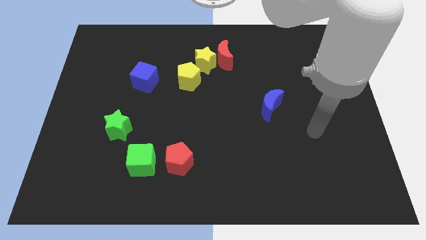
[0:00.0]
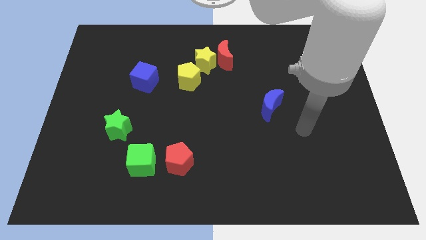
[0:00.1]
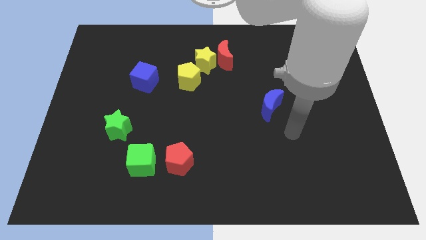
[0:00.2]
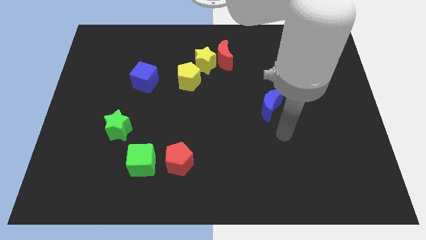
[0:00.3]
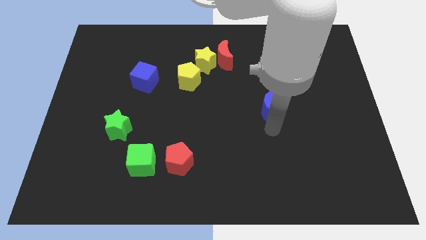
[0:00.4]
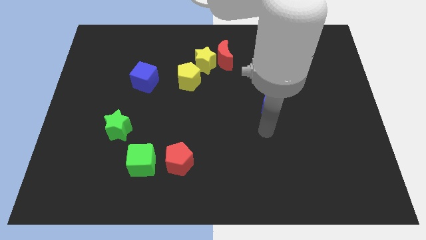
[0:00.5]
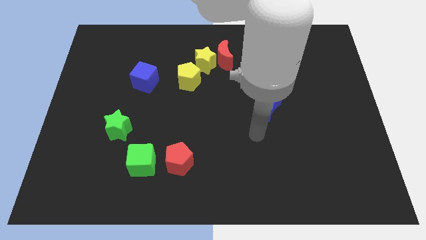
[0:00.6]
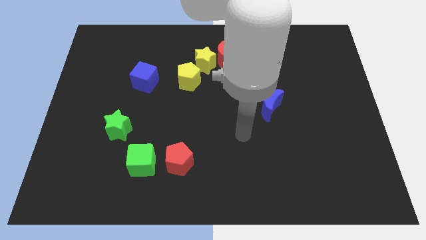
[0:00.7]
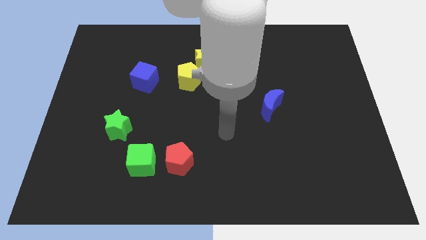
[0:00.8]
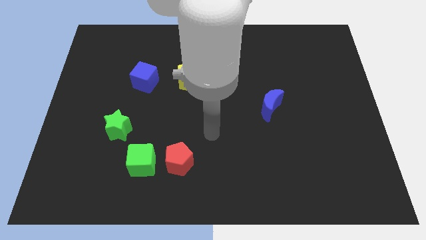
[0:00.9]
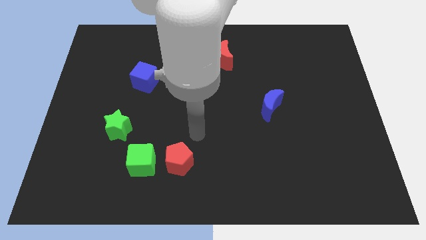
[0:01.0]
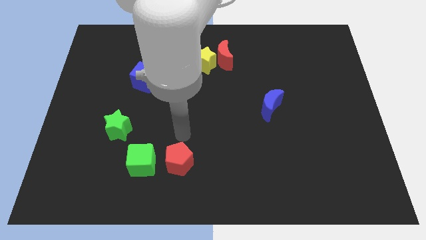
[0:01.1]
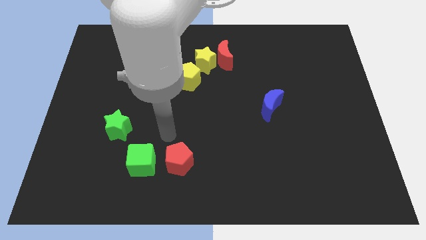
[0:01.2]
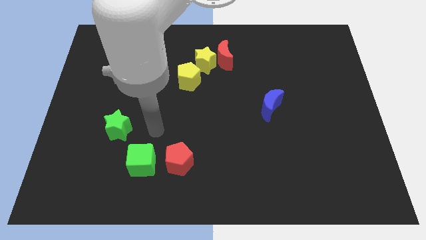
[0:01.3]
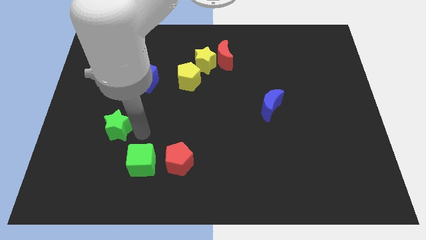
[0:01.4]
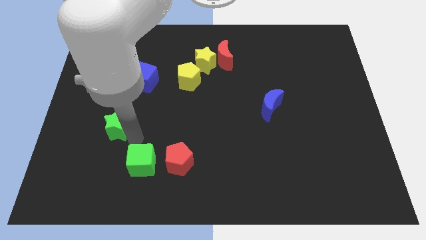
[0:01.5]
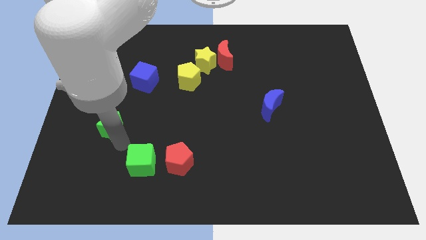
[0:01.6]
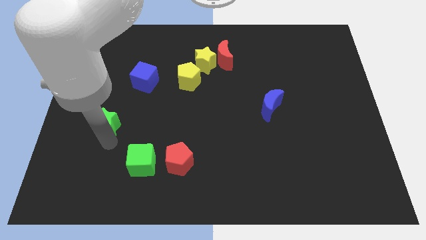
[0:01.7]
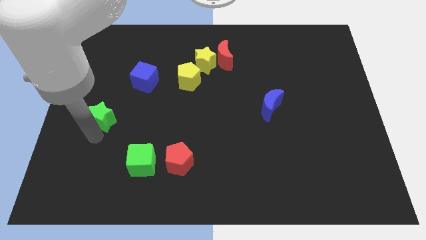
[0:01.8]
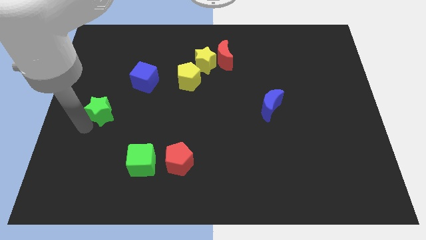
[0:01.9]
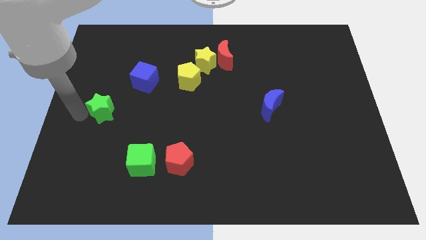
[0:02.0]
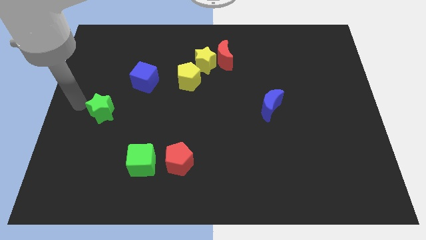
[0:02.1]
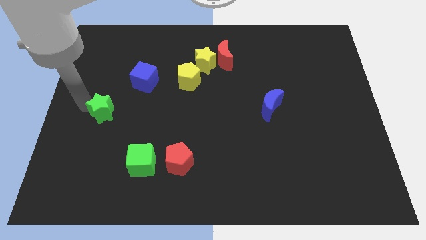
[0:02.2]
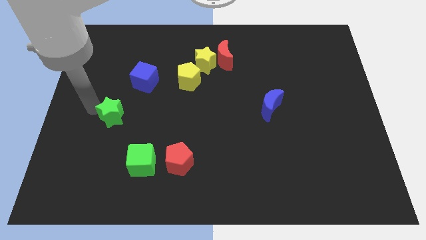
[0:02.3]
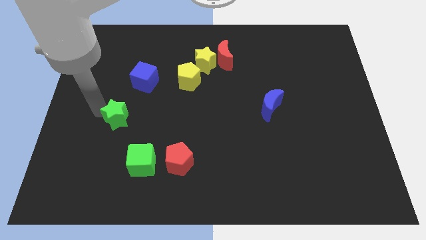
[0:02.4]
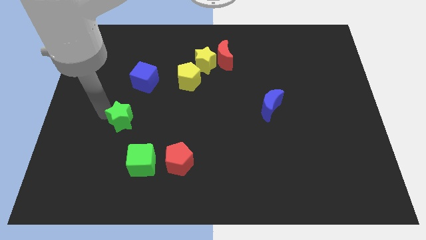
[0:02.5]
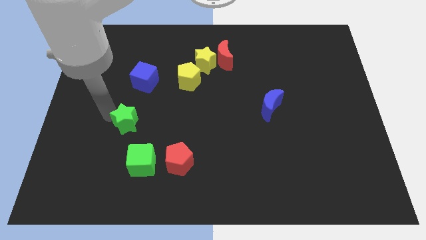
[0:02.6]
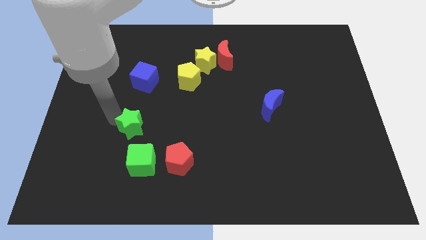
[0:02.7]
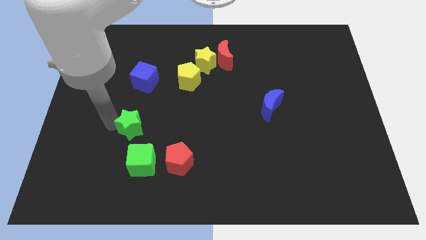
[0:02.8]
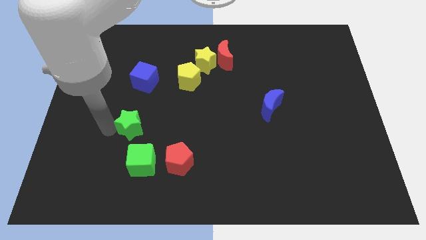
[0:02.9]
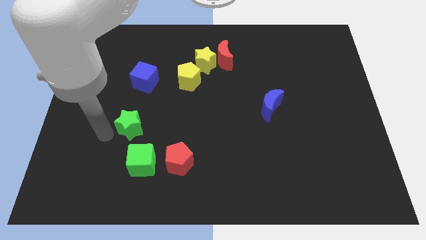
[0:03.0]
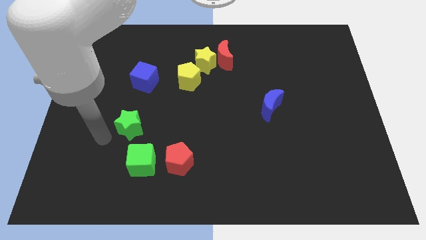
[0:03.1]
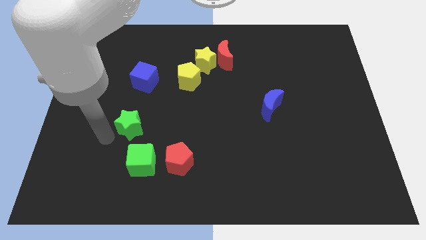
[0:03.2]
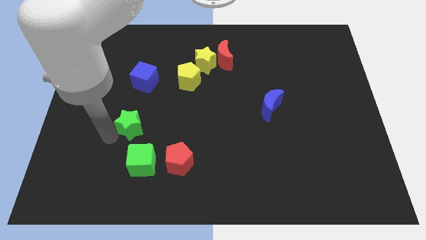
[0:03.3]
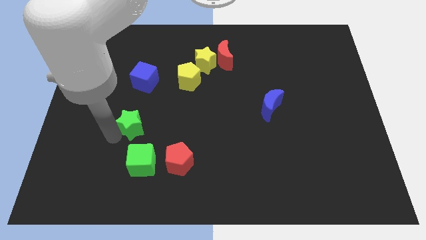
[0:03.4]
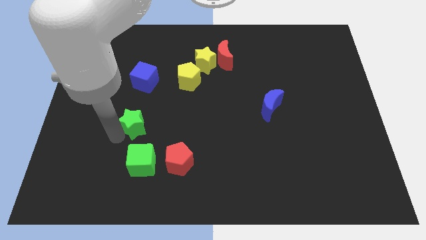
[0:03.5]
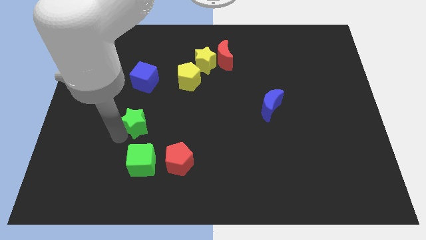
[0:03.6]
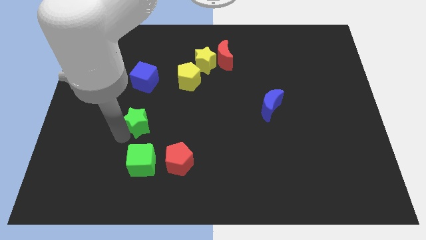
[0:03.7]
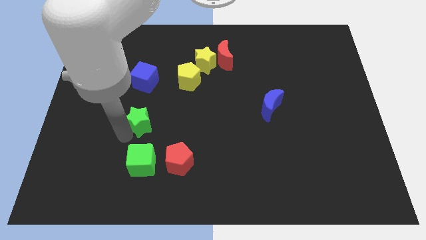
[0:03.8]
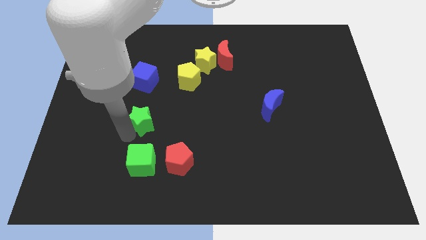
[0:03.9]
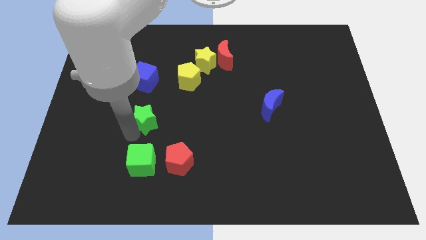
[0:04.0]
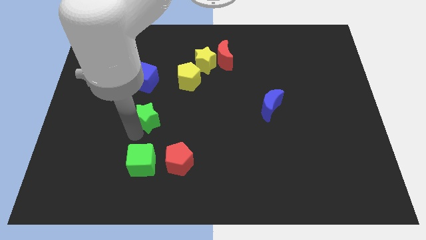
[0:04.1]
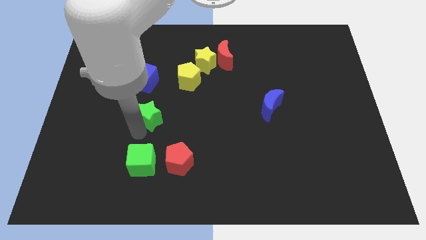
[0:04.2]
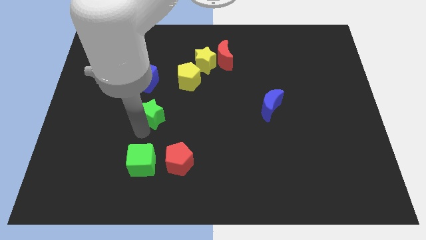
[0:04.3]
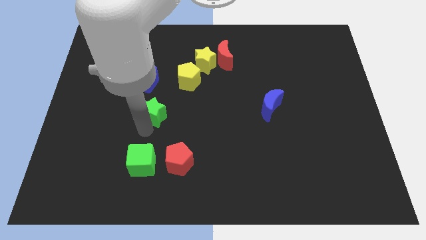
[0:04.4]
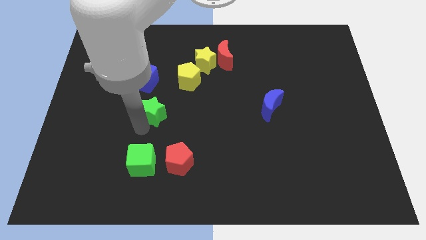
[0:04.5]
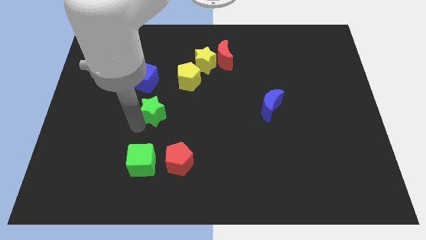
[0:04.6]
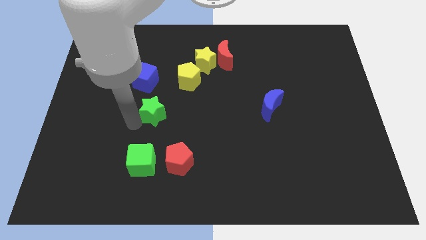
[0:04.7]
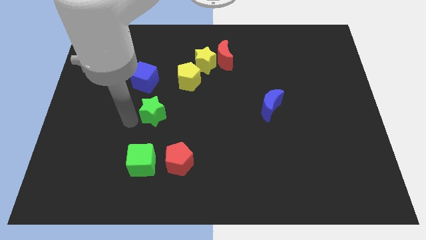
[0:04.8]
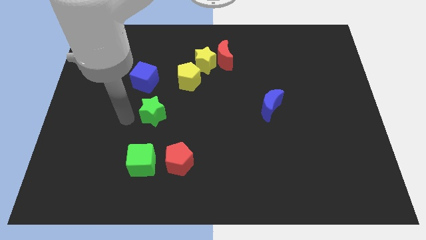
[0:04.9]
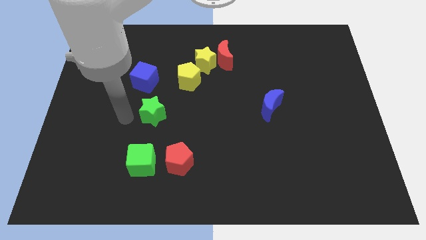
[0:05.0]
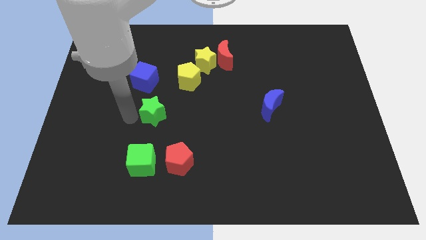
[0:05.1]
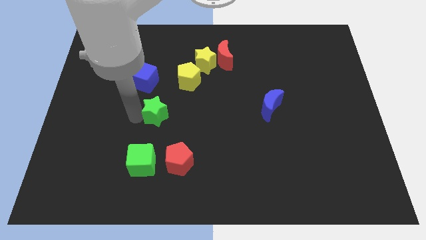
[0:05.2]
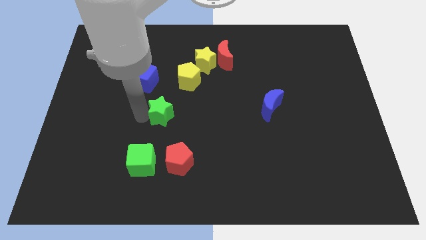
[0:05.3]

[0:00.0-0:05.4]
push the green star to the center

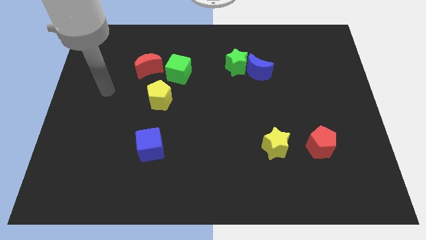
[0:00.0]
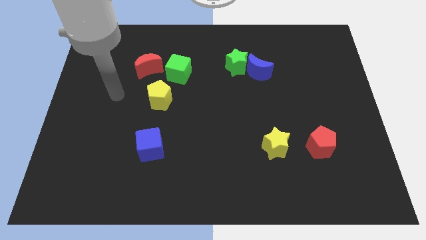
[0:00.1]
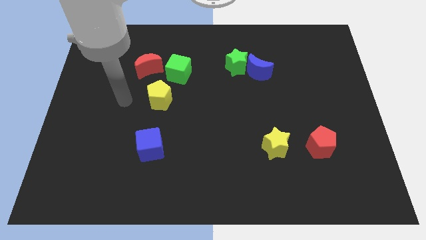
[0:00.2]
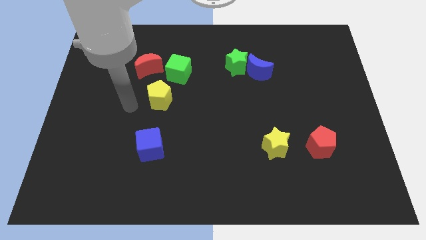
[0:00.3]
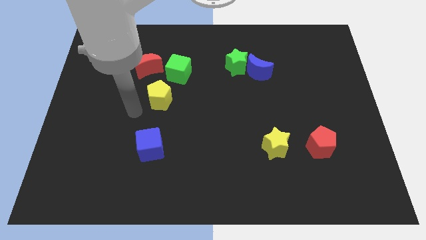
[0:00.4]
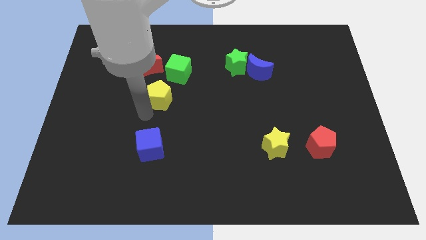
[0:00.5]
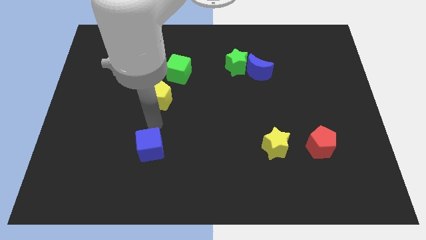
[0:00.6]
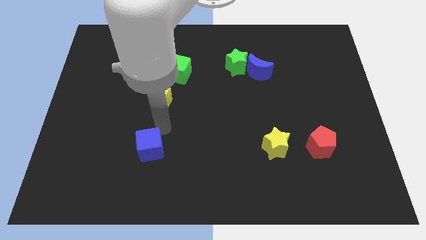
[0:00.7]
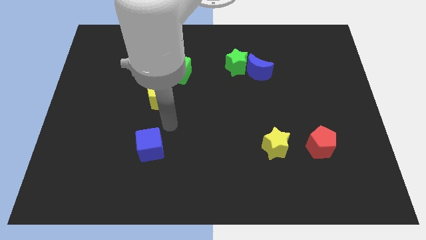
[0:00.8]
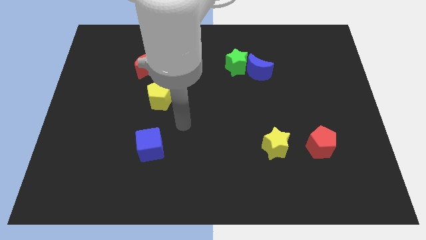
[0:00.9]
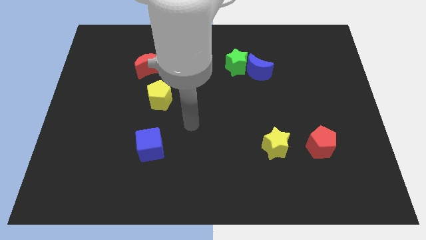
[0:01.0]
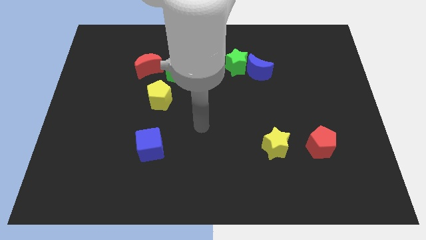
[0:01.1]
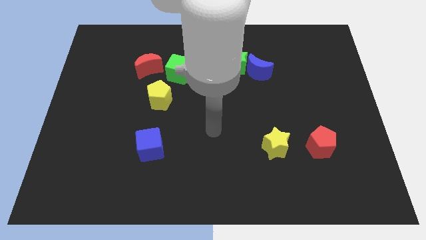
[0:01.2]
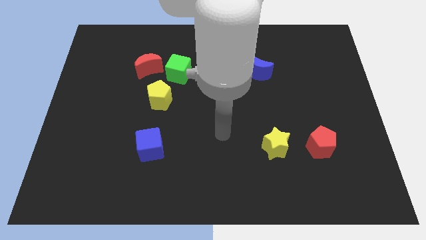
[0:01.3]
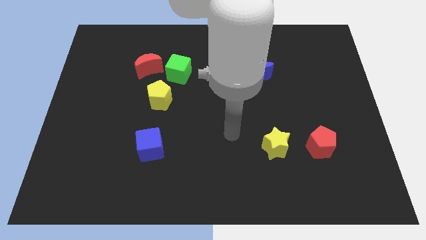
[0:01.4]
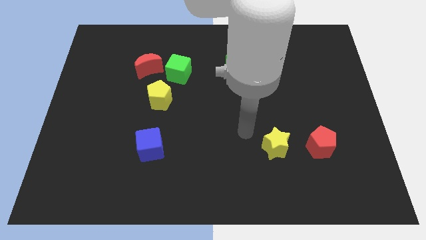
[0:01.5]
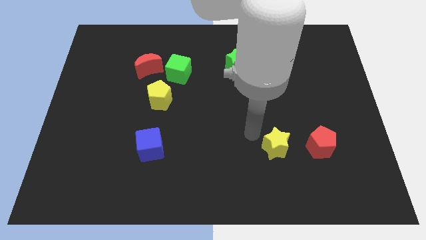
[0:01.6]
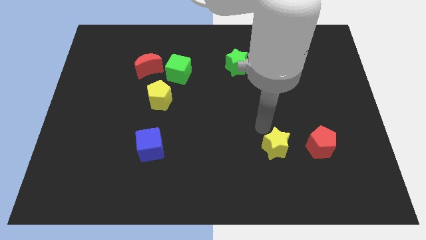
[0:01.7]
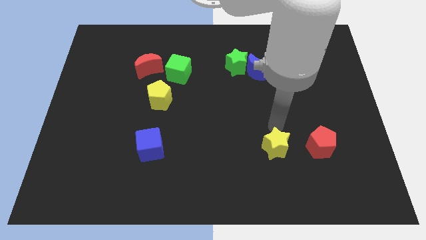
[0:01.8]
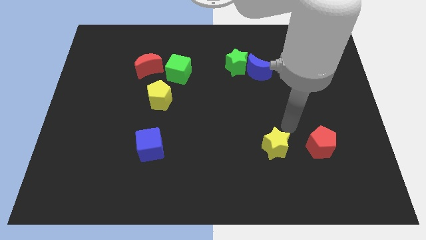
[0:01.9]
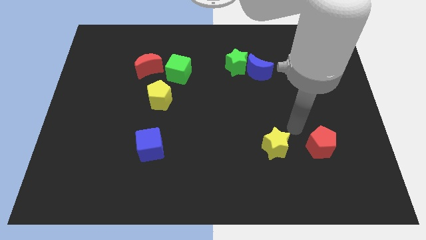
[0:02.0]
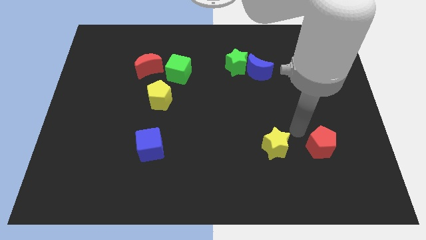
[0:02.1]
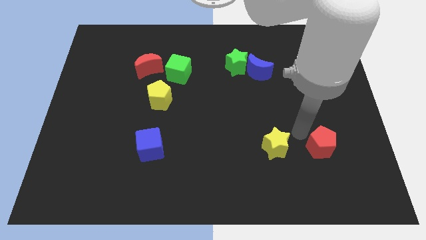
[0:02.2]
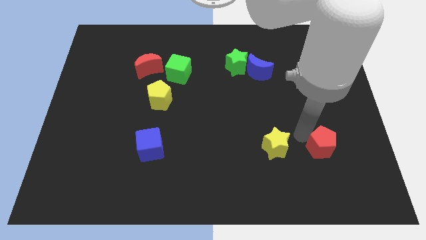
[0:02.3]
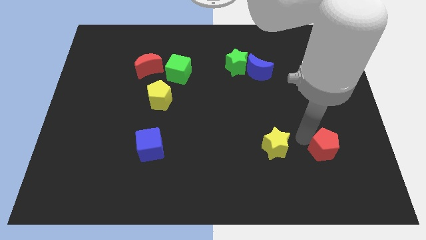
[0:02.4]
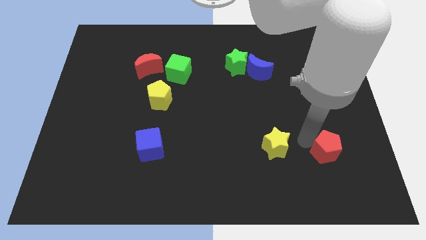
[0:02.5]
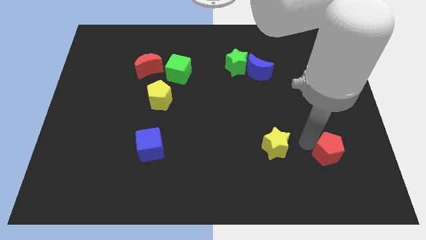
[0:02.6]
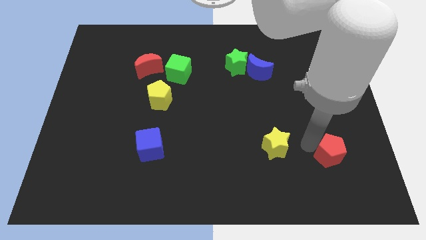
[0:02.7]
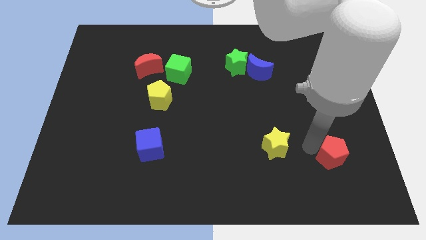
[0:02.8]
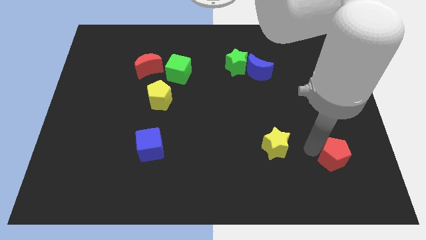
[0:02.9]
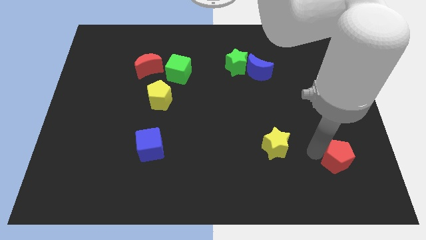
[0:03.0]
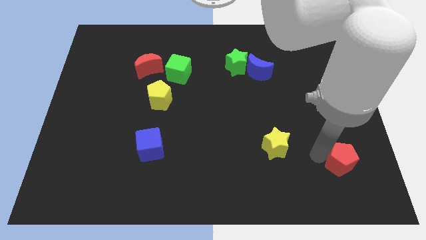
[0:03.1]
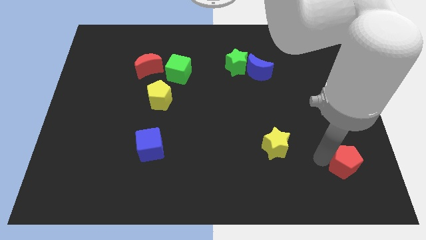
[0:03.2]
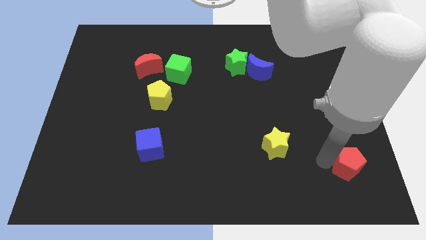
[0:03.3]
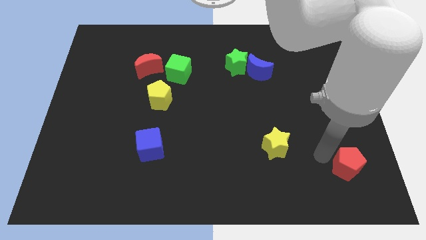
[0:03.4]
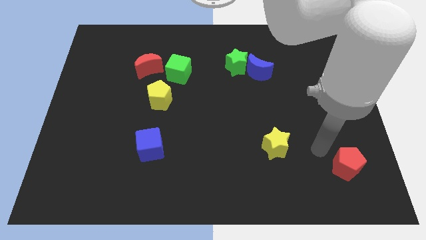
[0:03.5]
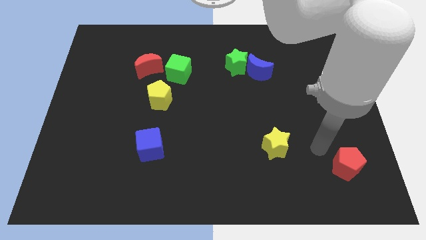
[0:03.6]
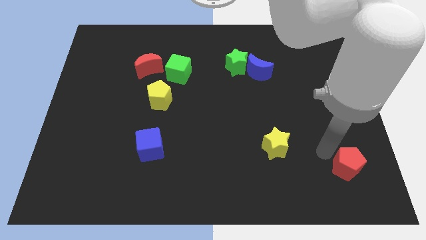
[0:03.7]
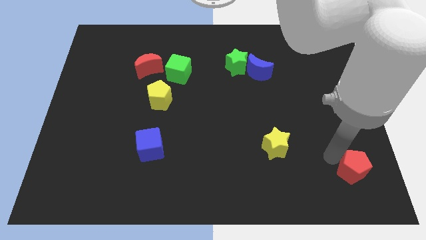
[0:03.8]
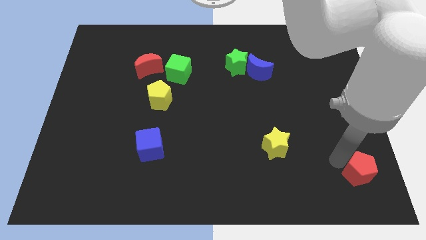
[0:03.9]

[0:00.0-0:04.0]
put the red pentagon to the bottom right
